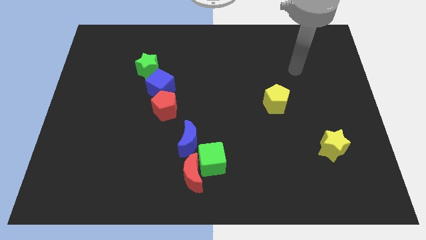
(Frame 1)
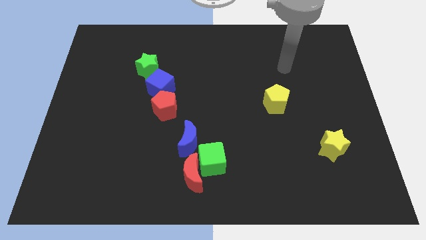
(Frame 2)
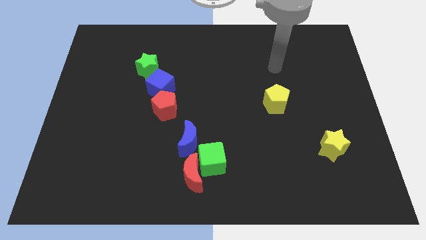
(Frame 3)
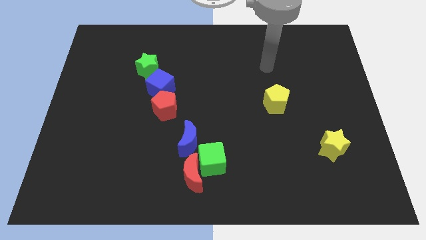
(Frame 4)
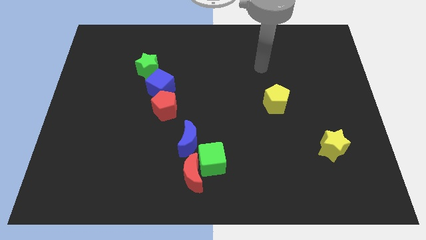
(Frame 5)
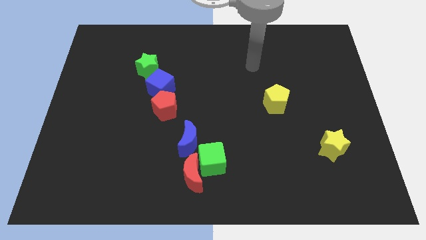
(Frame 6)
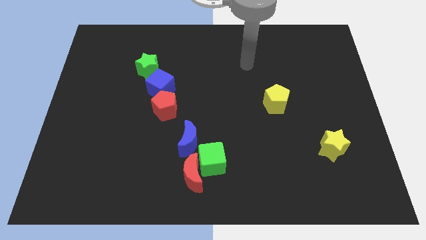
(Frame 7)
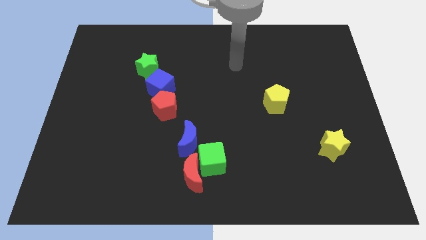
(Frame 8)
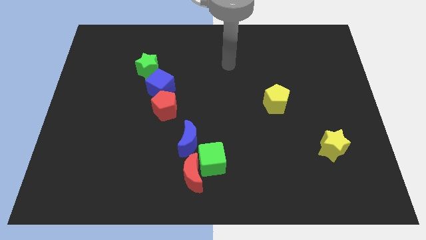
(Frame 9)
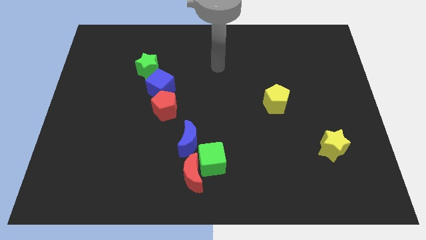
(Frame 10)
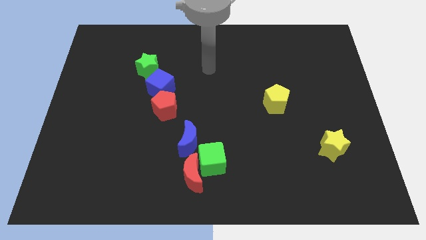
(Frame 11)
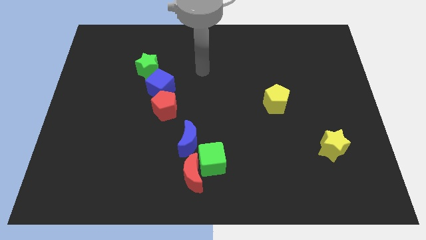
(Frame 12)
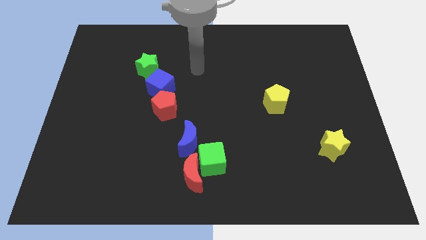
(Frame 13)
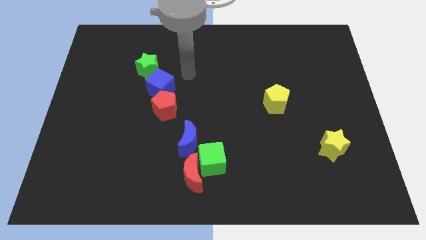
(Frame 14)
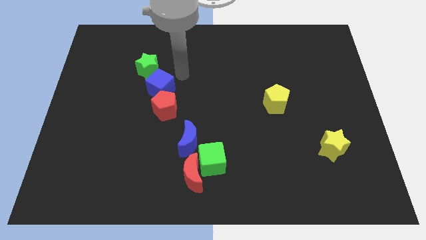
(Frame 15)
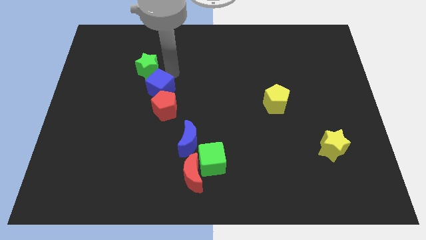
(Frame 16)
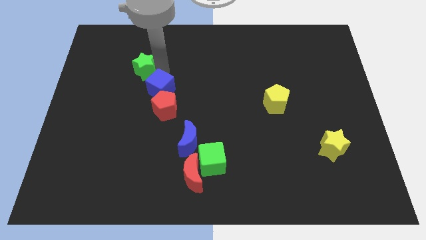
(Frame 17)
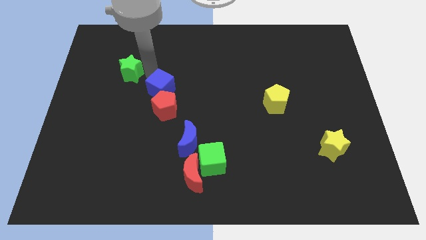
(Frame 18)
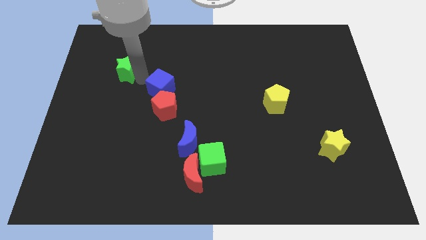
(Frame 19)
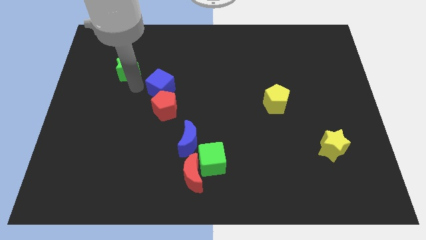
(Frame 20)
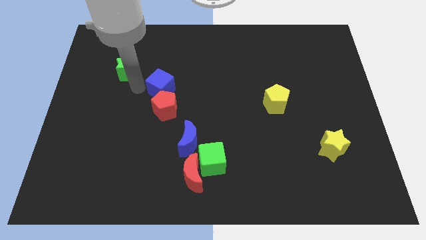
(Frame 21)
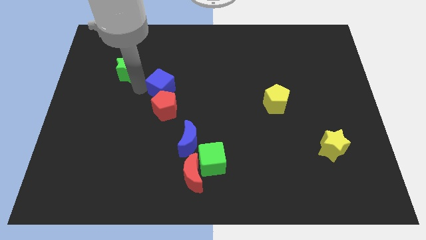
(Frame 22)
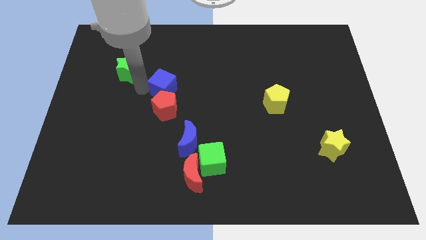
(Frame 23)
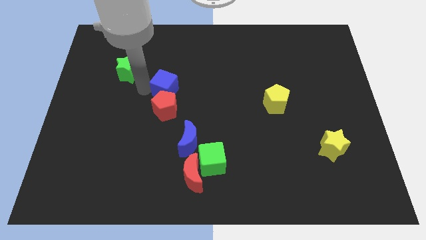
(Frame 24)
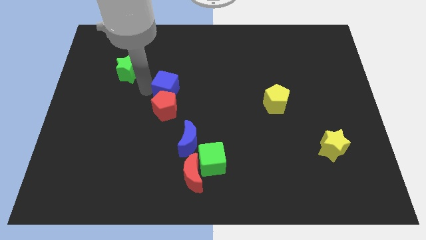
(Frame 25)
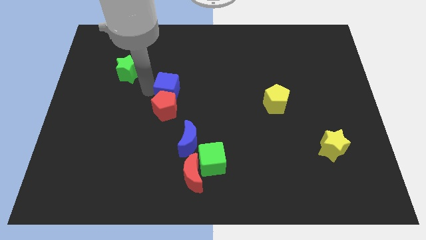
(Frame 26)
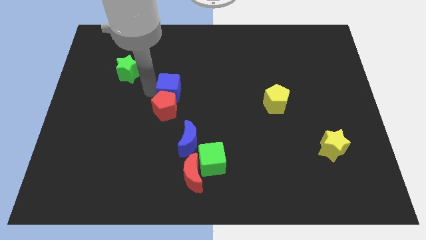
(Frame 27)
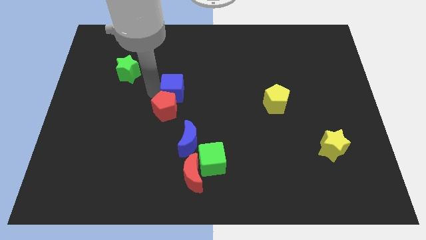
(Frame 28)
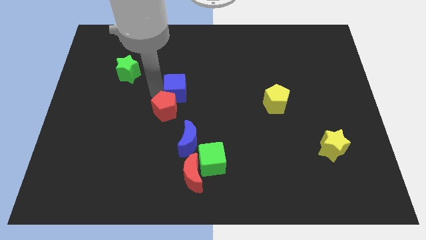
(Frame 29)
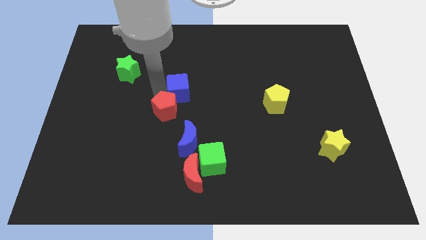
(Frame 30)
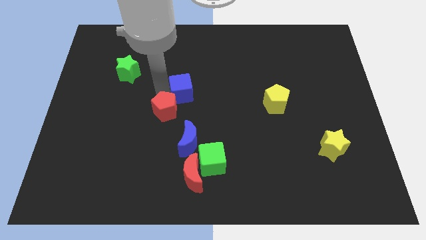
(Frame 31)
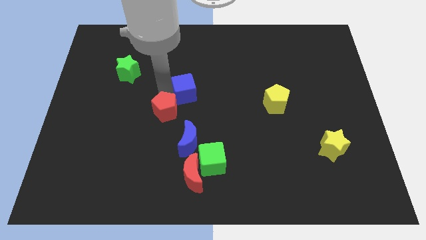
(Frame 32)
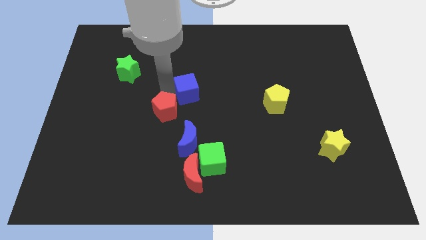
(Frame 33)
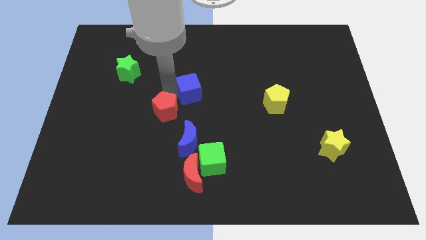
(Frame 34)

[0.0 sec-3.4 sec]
slide the blue cube slightly right

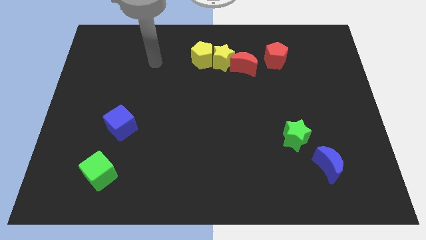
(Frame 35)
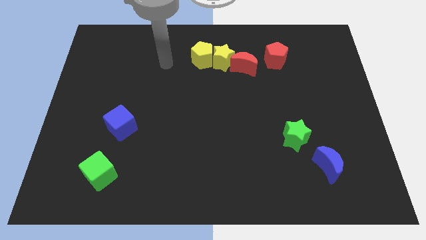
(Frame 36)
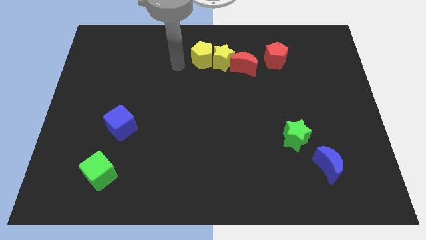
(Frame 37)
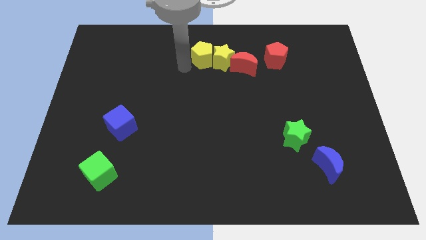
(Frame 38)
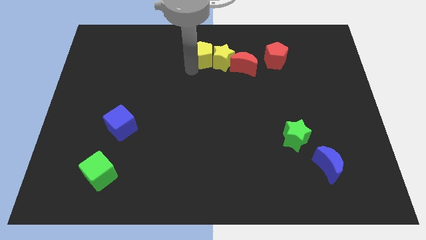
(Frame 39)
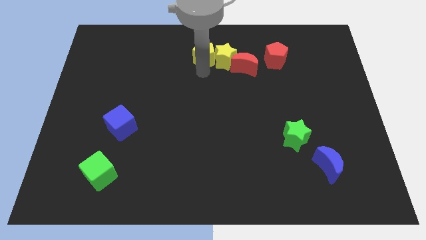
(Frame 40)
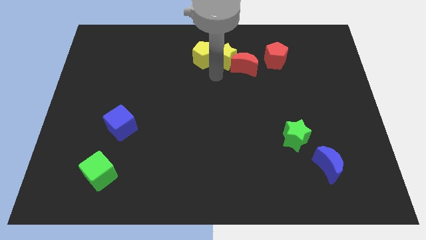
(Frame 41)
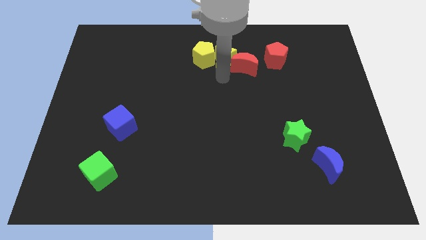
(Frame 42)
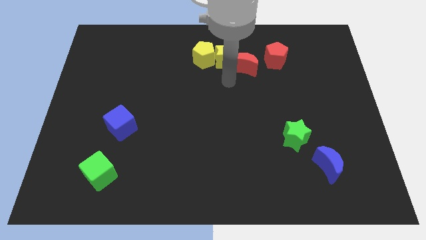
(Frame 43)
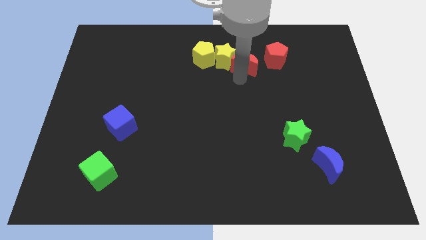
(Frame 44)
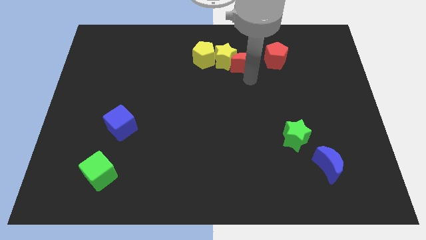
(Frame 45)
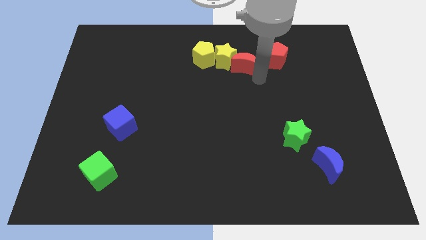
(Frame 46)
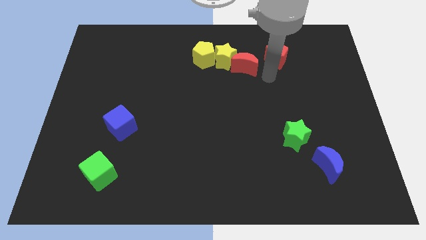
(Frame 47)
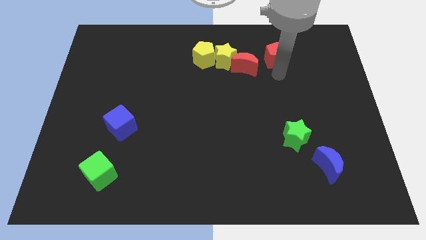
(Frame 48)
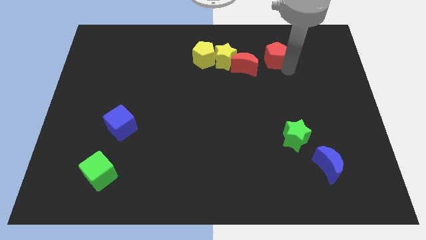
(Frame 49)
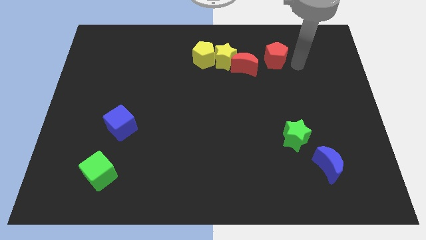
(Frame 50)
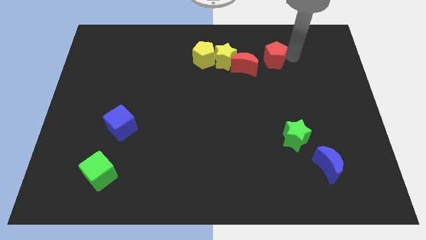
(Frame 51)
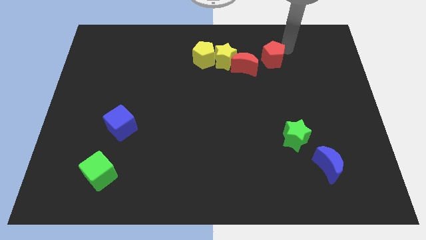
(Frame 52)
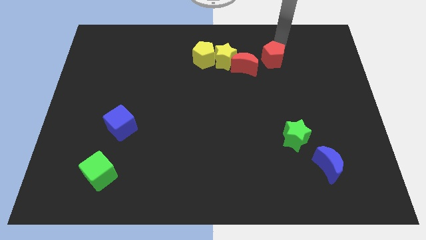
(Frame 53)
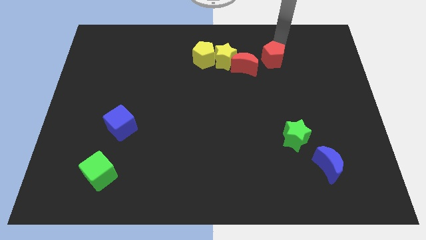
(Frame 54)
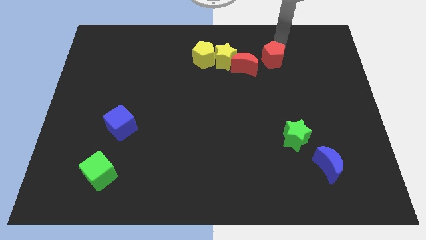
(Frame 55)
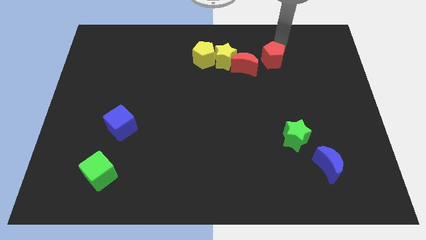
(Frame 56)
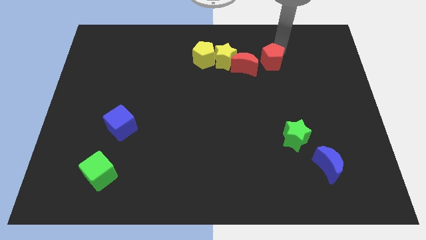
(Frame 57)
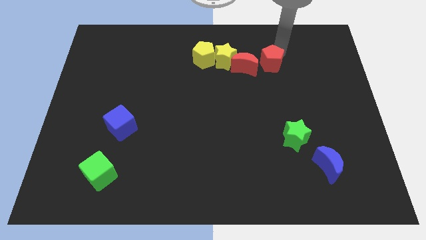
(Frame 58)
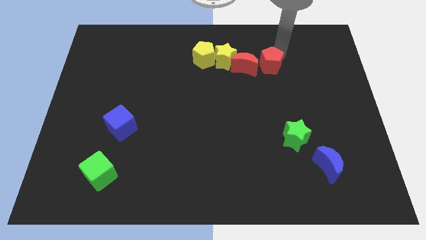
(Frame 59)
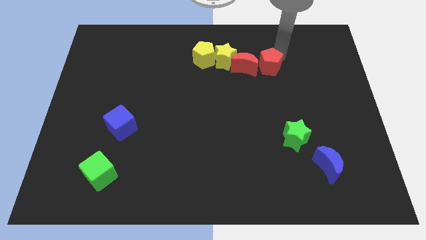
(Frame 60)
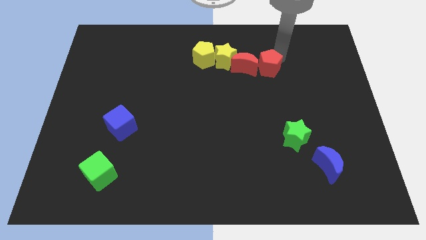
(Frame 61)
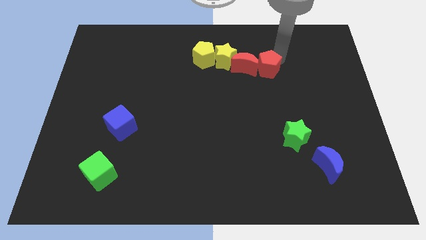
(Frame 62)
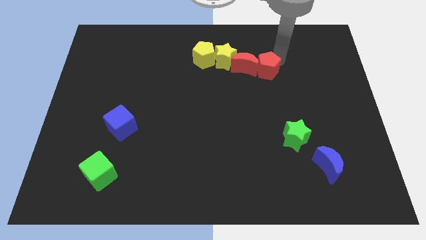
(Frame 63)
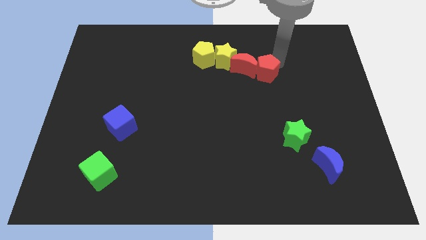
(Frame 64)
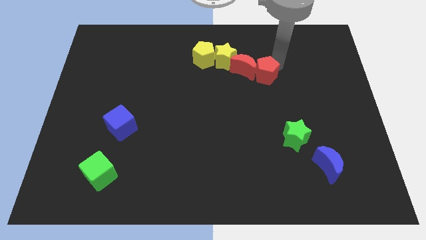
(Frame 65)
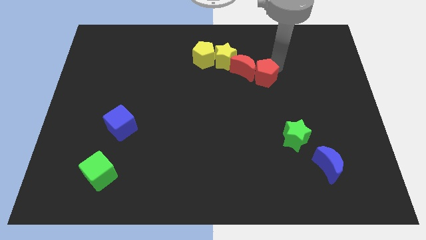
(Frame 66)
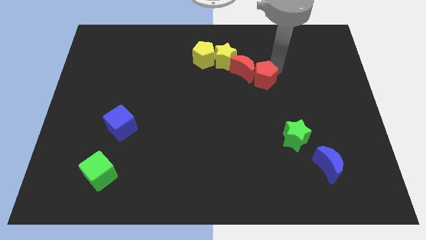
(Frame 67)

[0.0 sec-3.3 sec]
push the red pentagon down and then left somewhat

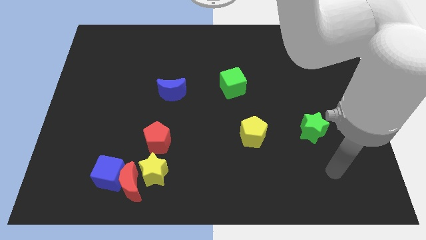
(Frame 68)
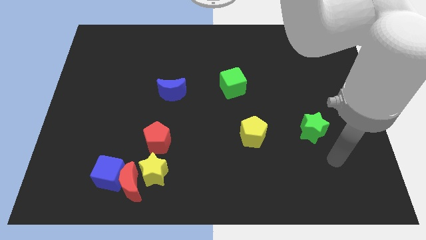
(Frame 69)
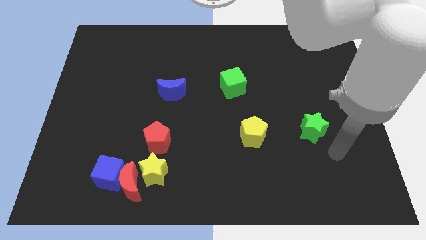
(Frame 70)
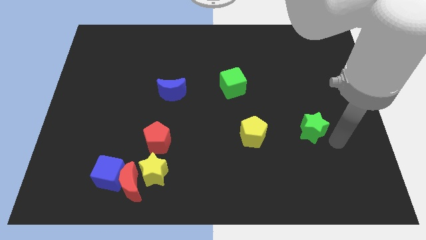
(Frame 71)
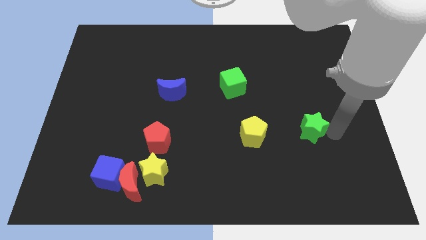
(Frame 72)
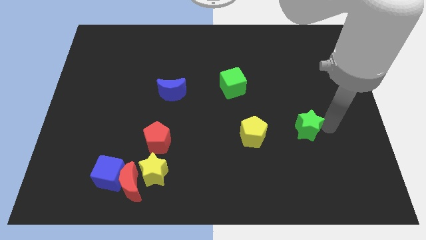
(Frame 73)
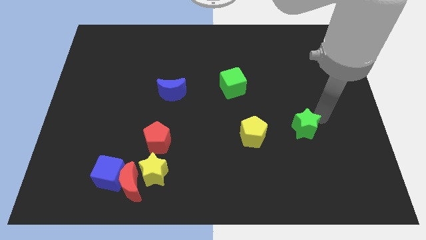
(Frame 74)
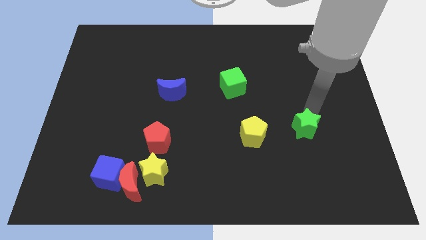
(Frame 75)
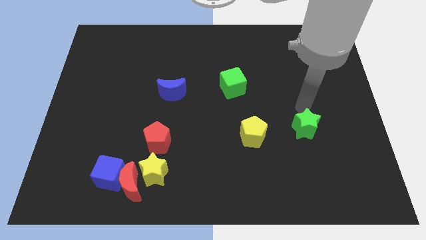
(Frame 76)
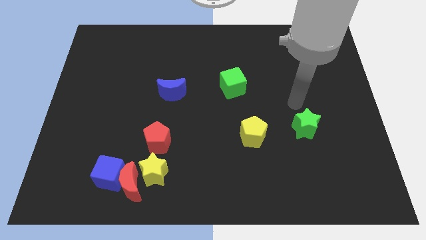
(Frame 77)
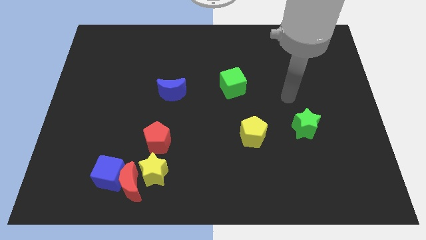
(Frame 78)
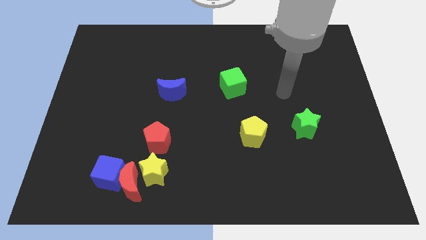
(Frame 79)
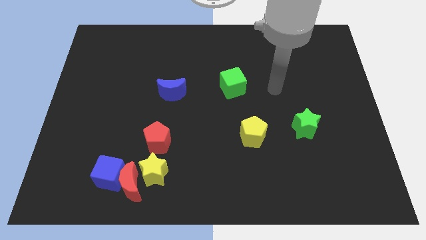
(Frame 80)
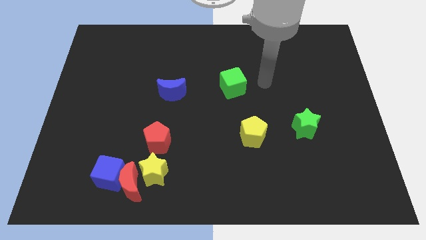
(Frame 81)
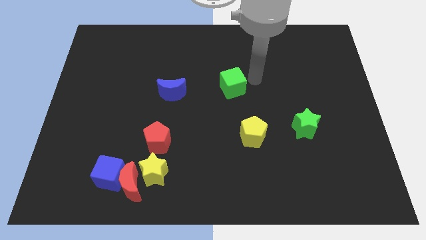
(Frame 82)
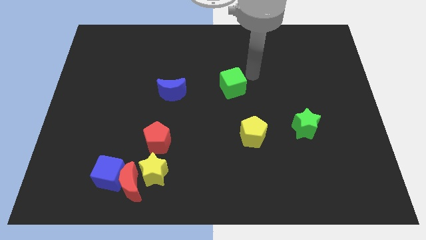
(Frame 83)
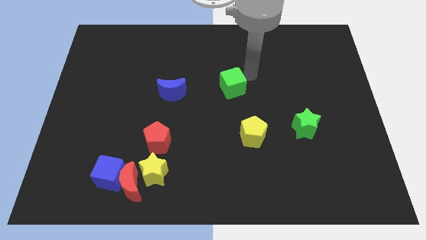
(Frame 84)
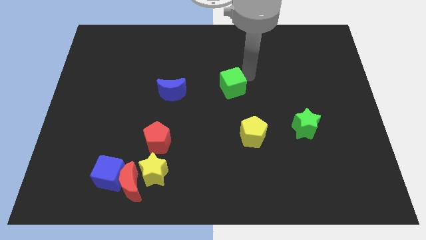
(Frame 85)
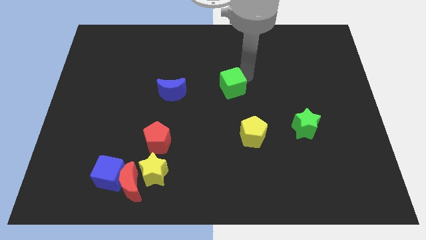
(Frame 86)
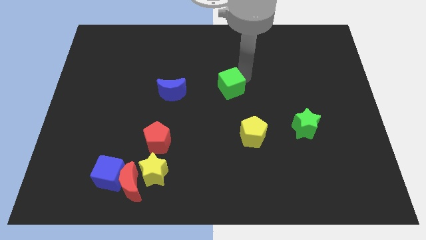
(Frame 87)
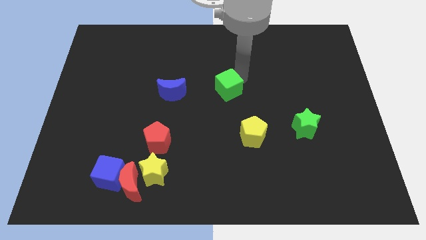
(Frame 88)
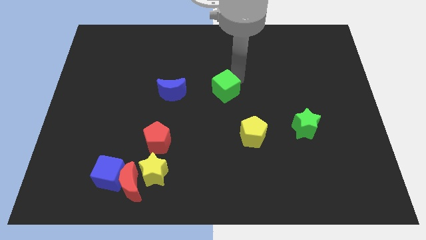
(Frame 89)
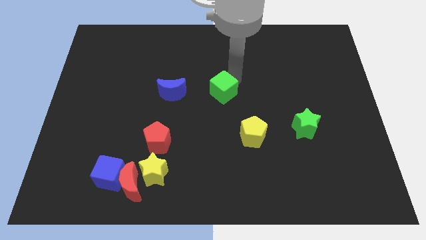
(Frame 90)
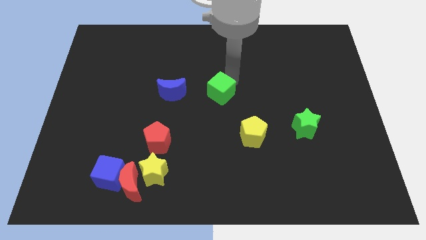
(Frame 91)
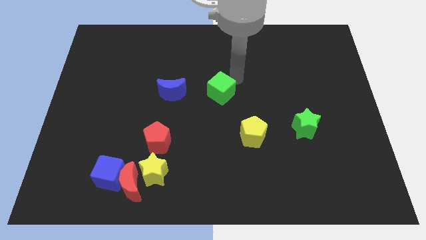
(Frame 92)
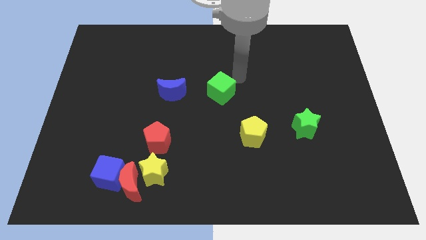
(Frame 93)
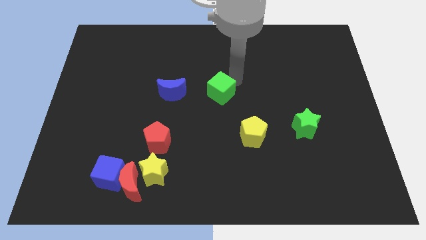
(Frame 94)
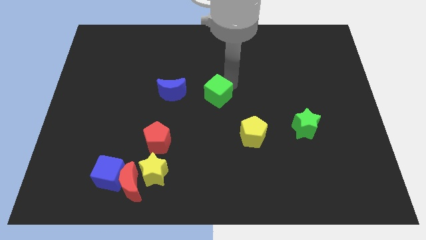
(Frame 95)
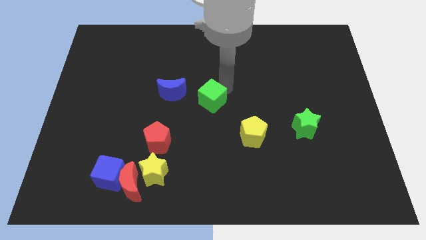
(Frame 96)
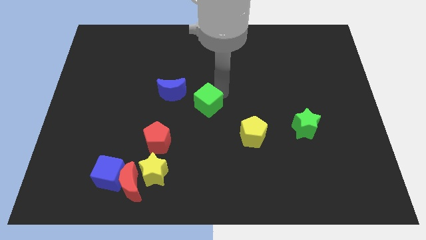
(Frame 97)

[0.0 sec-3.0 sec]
move the green cube somewhat down and left
